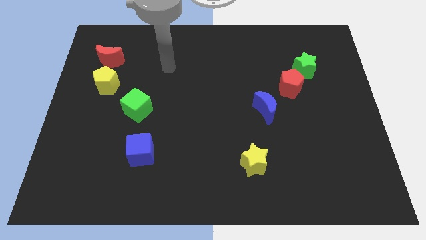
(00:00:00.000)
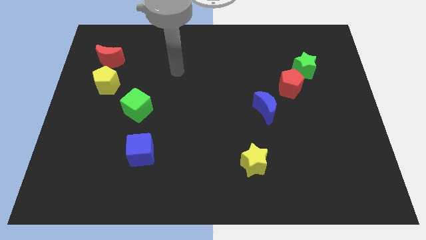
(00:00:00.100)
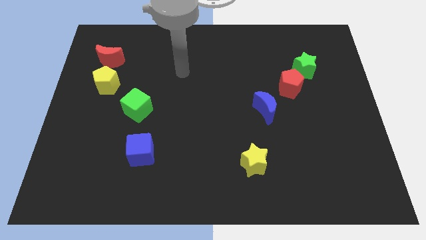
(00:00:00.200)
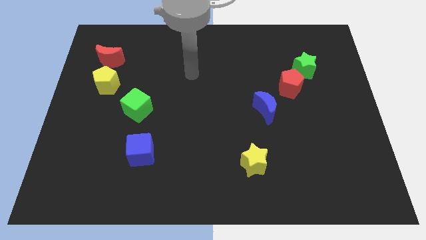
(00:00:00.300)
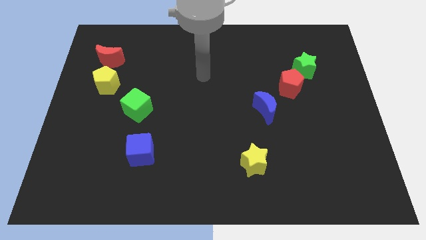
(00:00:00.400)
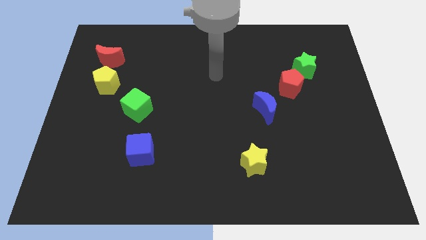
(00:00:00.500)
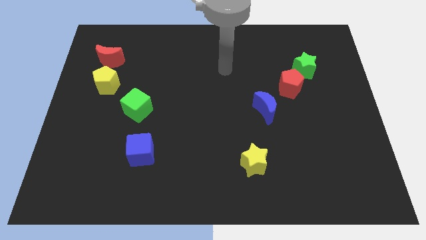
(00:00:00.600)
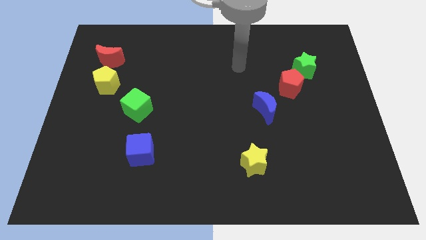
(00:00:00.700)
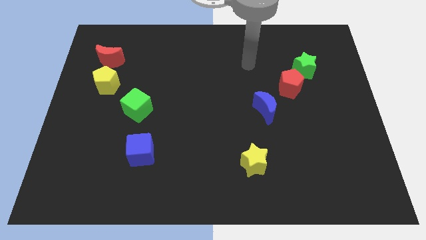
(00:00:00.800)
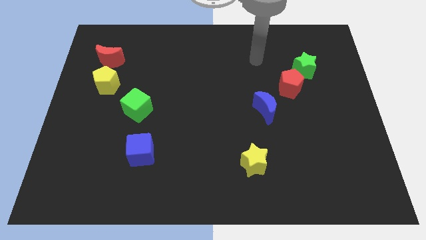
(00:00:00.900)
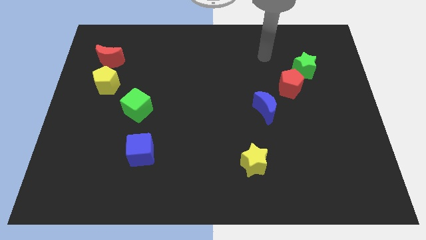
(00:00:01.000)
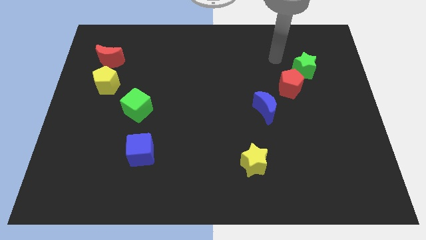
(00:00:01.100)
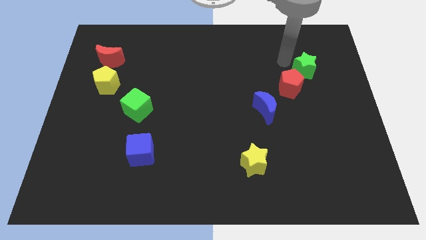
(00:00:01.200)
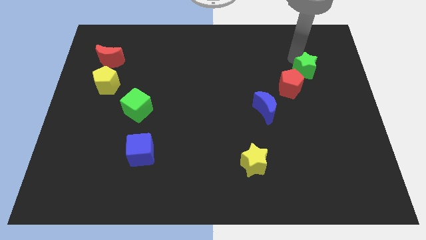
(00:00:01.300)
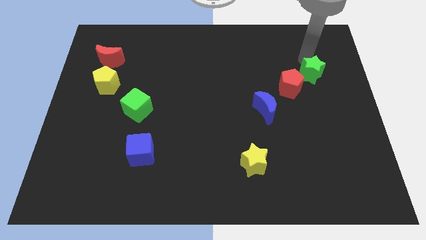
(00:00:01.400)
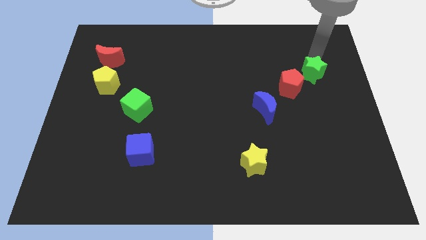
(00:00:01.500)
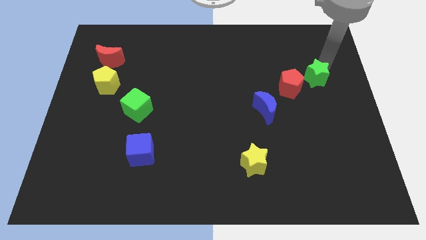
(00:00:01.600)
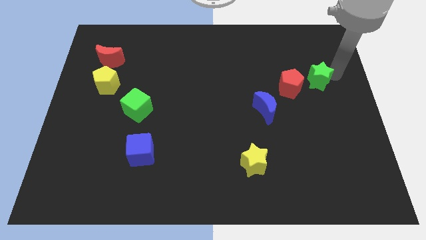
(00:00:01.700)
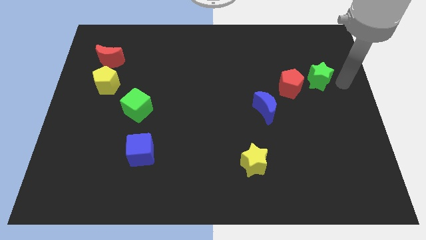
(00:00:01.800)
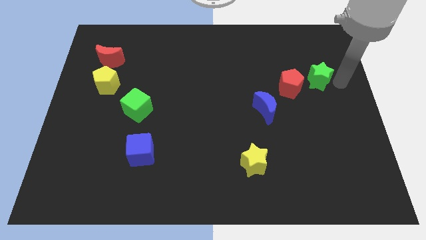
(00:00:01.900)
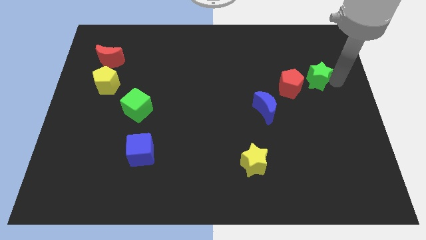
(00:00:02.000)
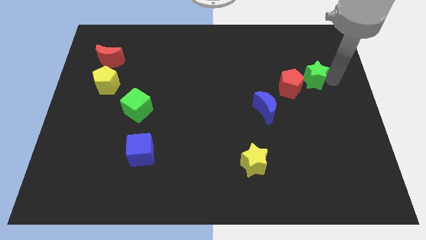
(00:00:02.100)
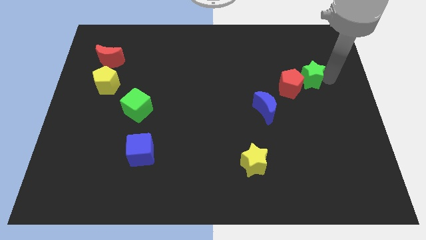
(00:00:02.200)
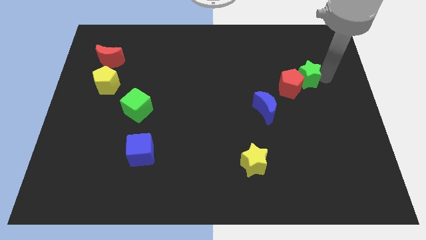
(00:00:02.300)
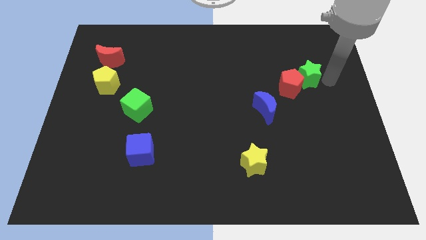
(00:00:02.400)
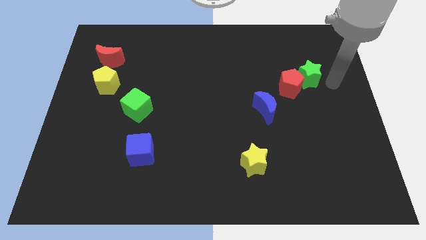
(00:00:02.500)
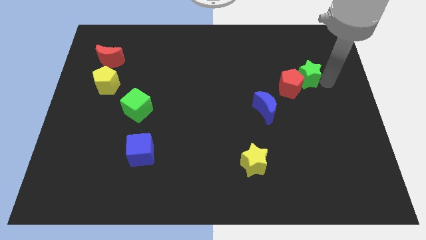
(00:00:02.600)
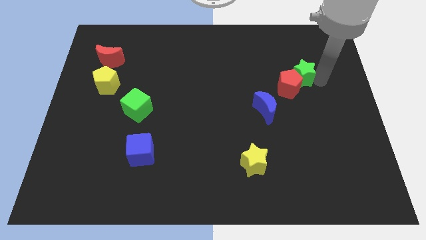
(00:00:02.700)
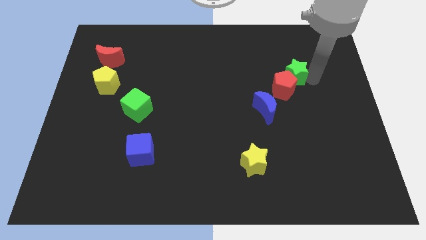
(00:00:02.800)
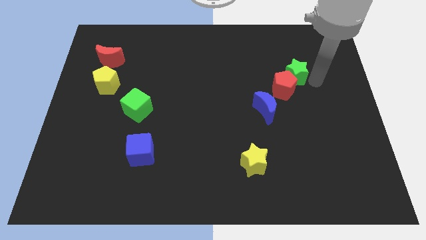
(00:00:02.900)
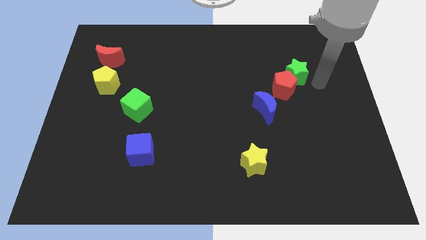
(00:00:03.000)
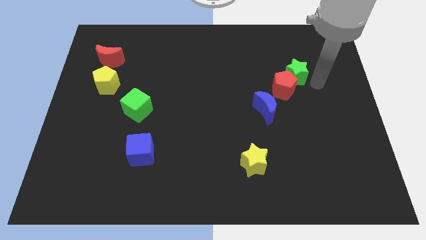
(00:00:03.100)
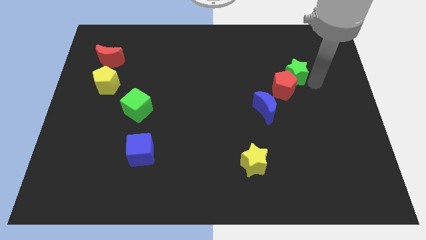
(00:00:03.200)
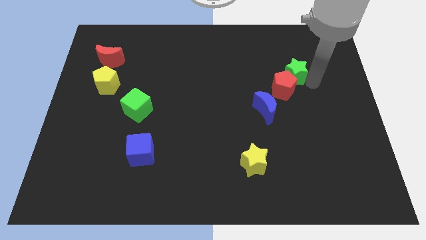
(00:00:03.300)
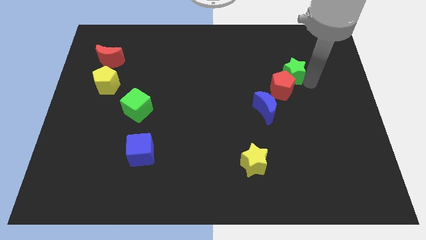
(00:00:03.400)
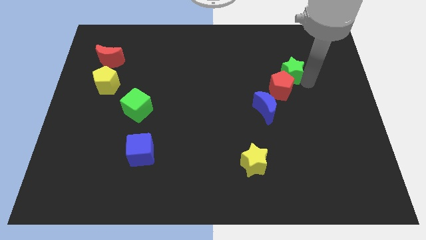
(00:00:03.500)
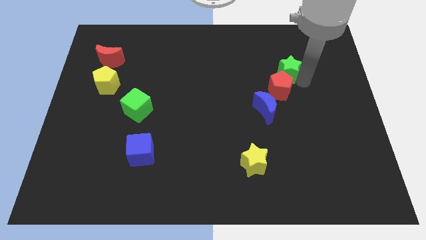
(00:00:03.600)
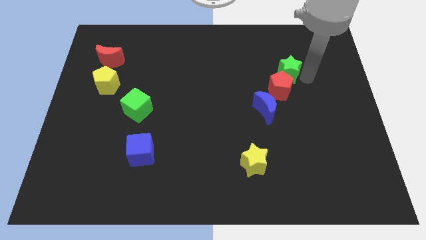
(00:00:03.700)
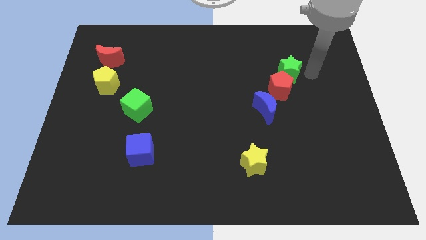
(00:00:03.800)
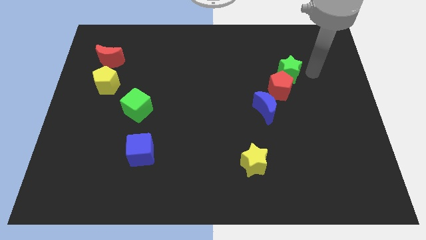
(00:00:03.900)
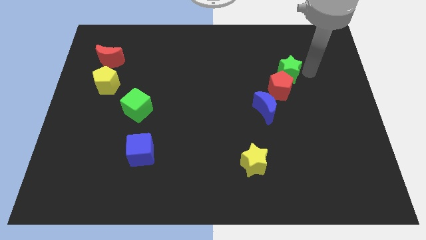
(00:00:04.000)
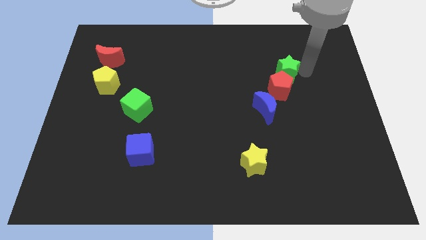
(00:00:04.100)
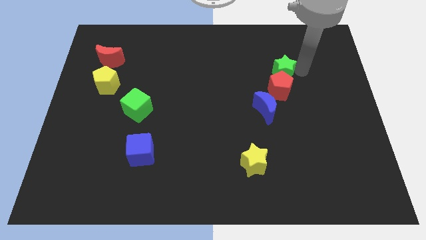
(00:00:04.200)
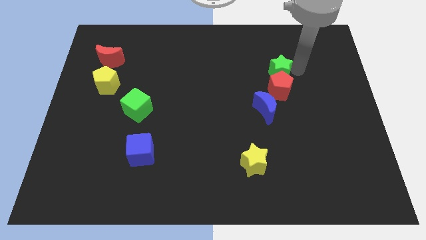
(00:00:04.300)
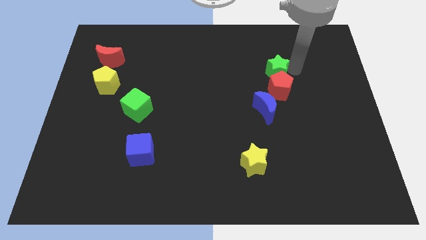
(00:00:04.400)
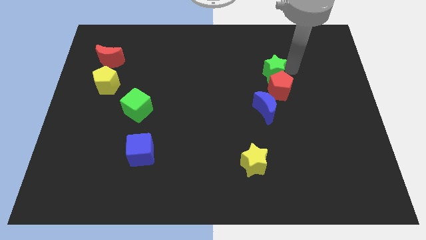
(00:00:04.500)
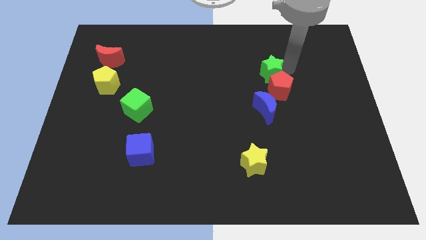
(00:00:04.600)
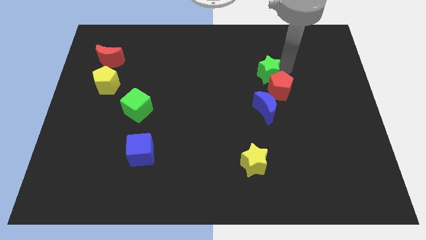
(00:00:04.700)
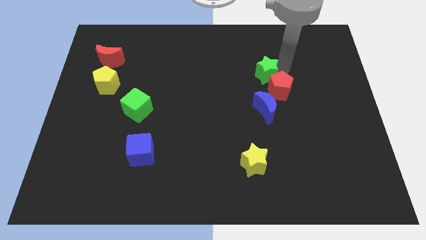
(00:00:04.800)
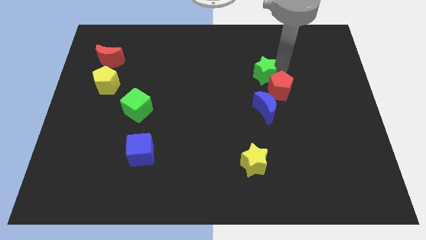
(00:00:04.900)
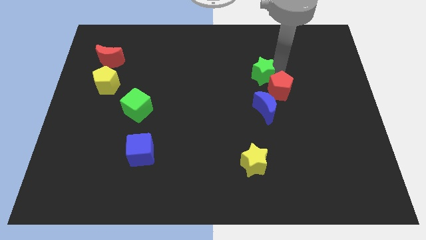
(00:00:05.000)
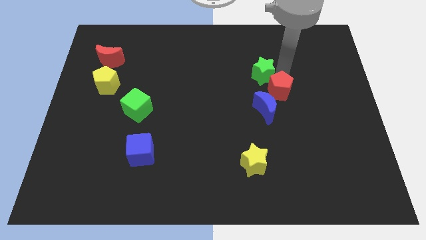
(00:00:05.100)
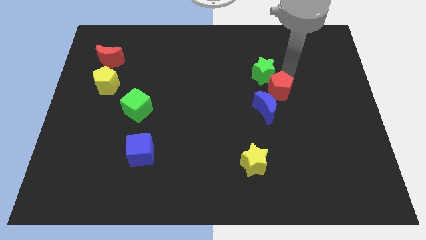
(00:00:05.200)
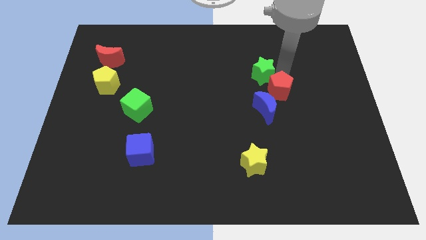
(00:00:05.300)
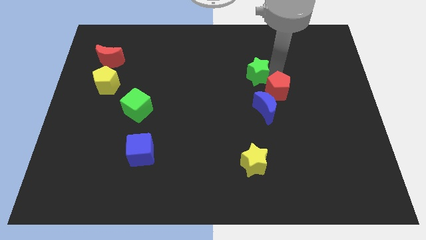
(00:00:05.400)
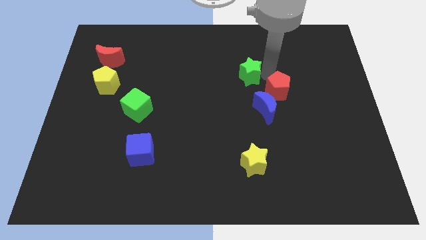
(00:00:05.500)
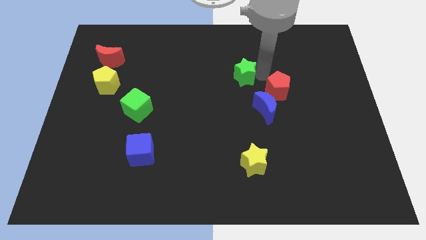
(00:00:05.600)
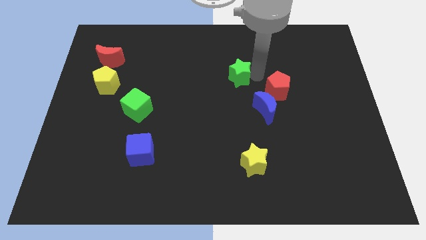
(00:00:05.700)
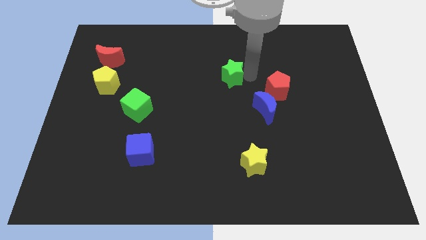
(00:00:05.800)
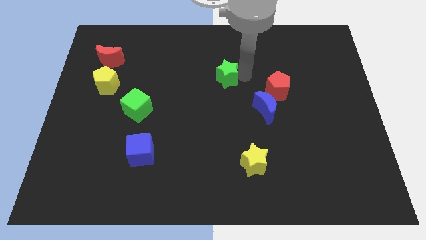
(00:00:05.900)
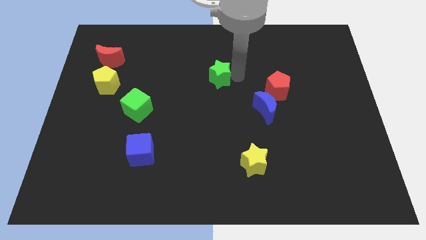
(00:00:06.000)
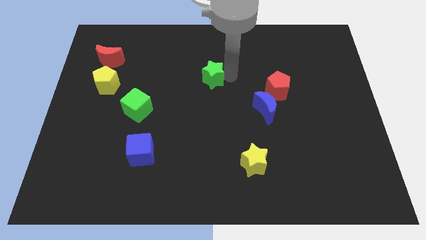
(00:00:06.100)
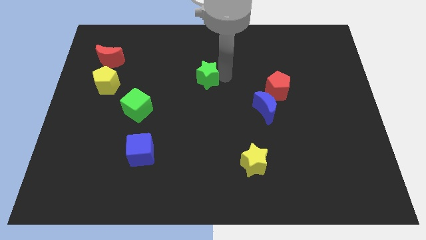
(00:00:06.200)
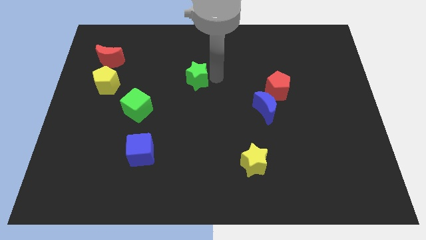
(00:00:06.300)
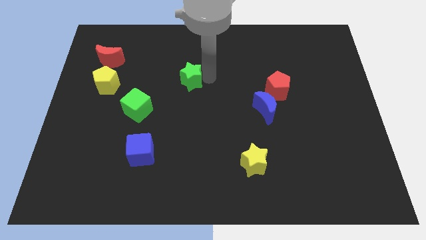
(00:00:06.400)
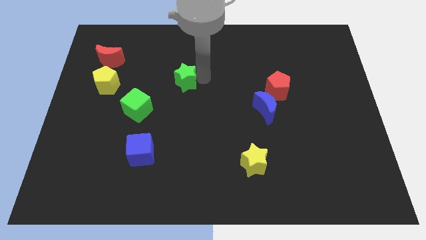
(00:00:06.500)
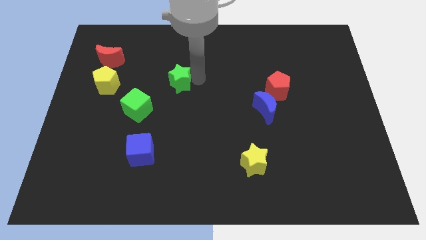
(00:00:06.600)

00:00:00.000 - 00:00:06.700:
move the green star to the top right side of the green cube
